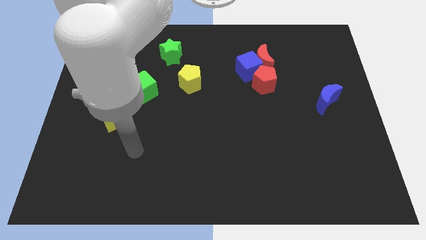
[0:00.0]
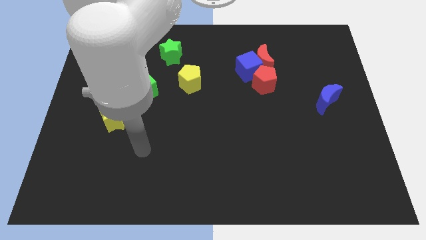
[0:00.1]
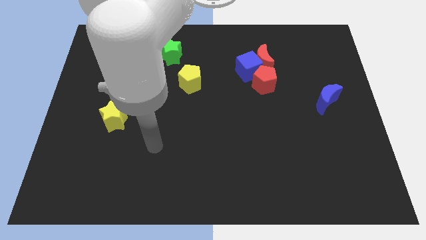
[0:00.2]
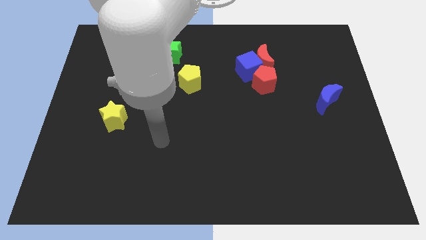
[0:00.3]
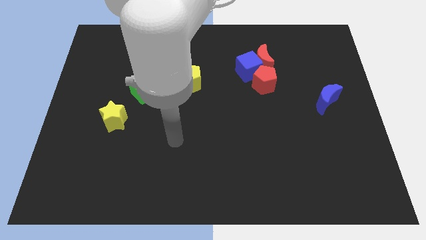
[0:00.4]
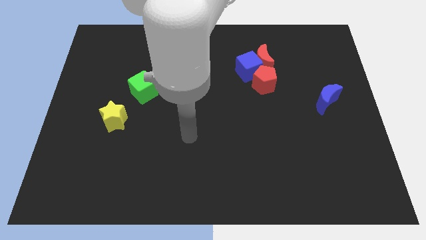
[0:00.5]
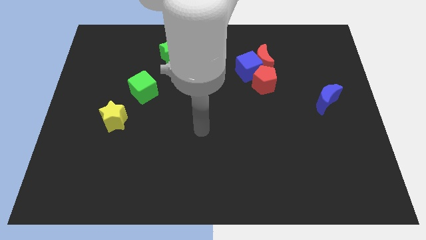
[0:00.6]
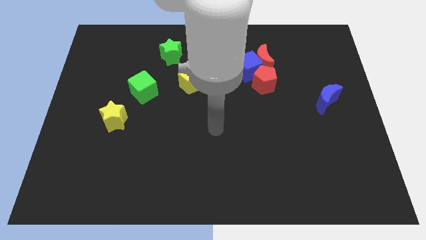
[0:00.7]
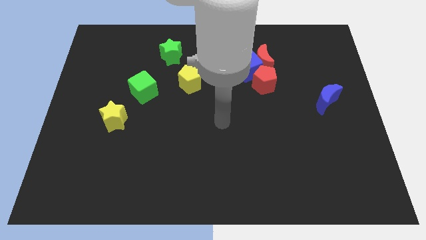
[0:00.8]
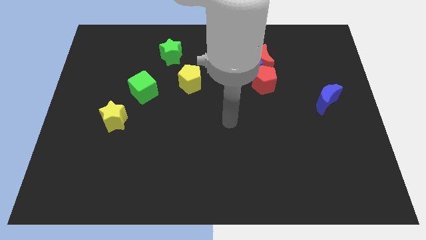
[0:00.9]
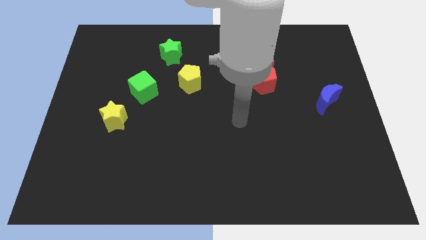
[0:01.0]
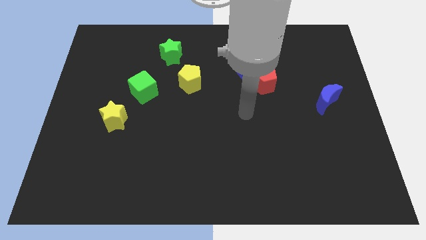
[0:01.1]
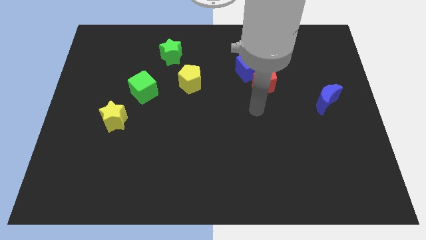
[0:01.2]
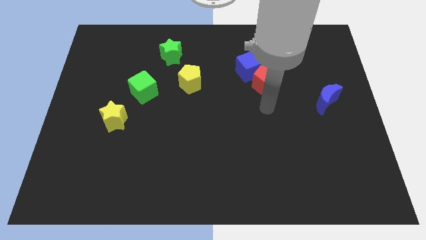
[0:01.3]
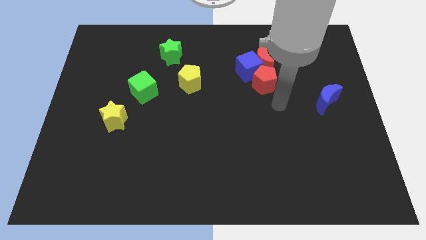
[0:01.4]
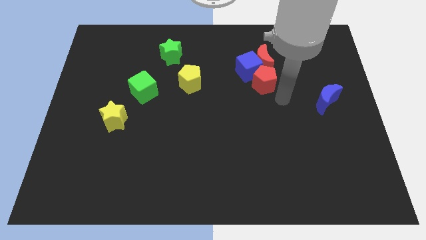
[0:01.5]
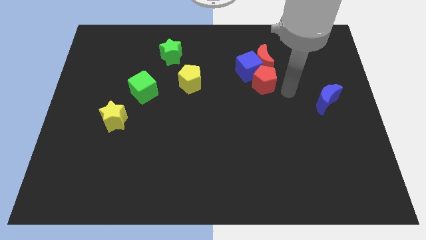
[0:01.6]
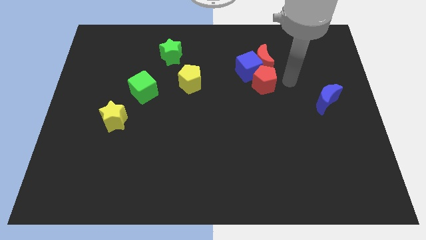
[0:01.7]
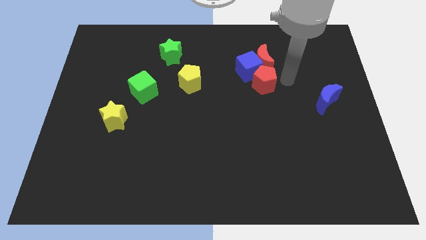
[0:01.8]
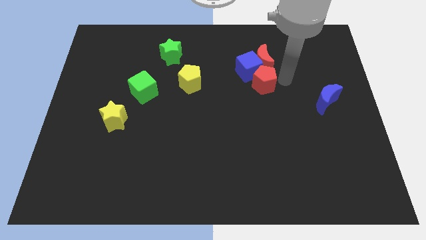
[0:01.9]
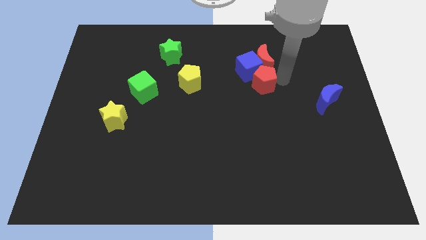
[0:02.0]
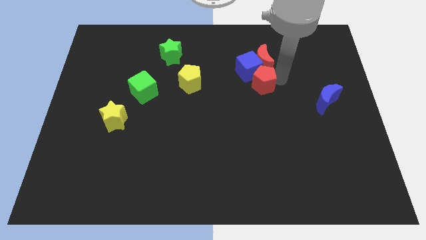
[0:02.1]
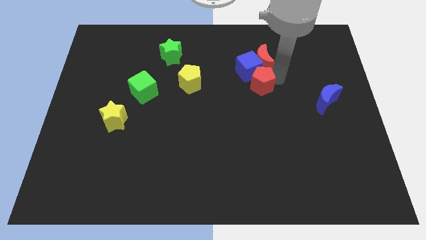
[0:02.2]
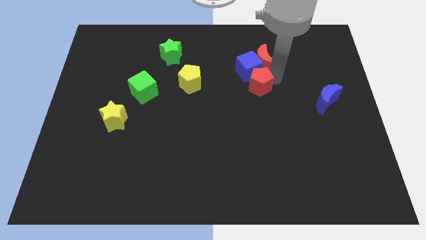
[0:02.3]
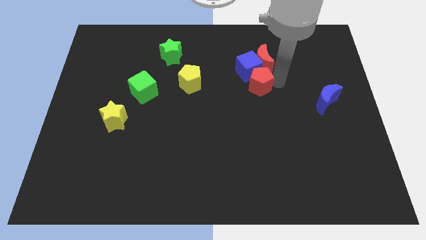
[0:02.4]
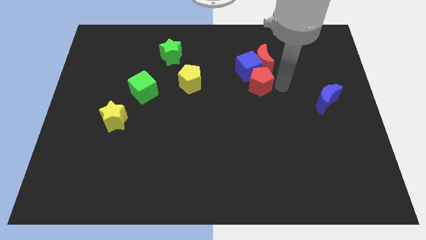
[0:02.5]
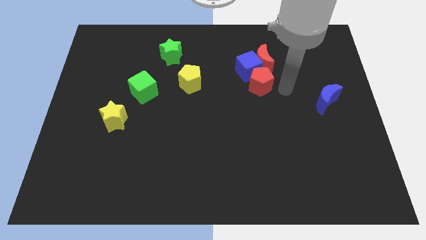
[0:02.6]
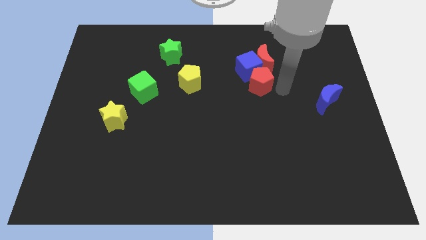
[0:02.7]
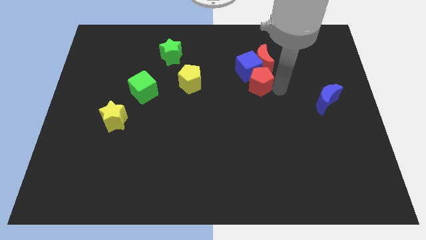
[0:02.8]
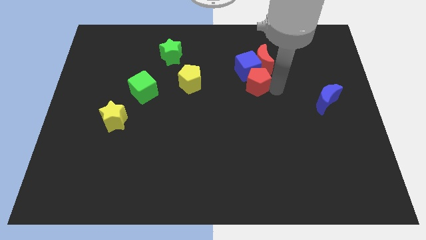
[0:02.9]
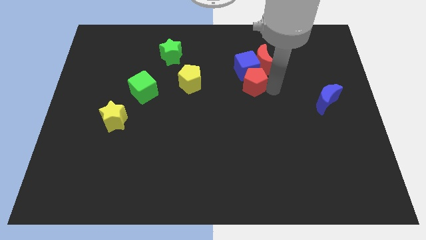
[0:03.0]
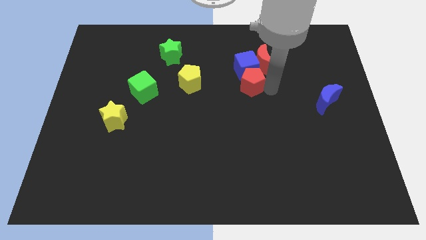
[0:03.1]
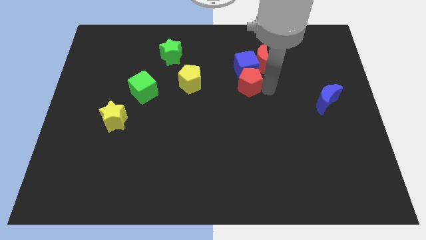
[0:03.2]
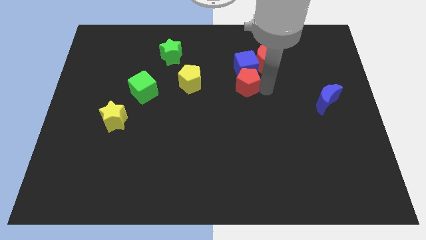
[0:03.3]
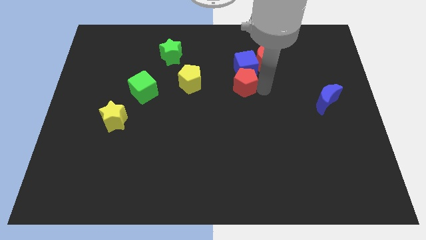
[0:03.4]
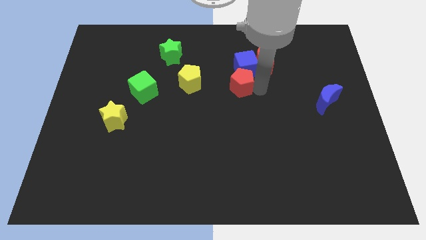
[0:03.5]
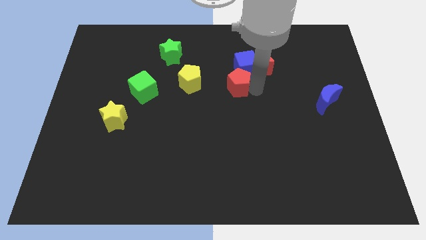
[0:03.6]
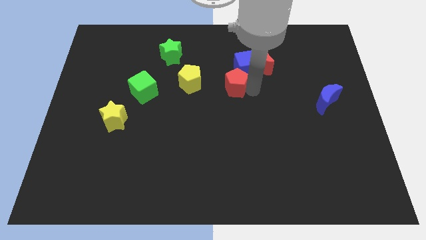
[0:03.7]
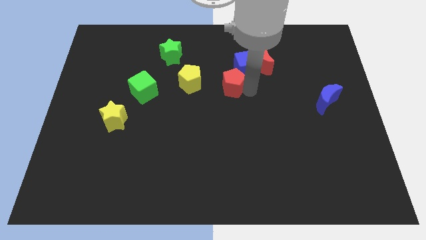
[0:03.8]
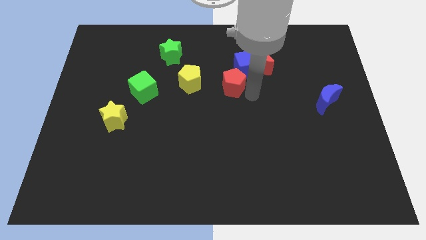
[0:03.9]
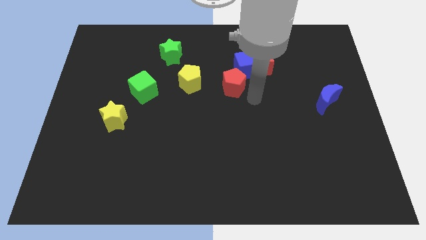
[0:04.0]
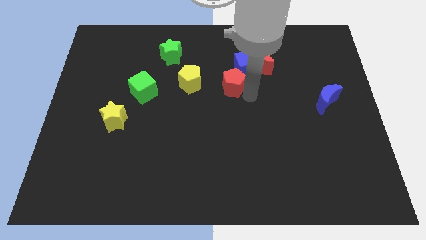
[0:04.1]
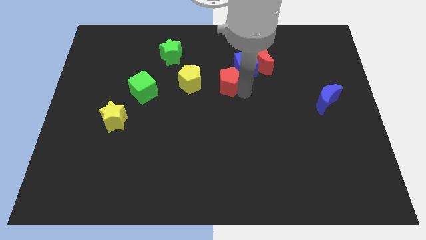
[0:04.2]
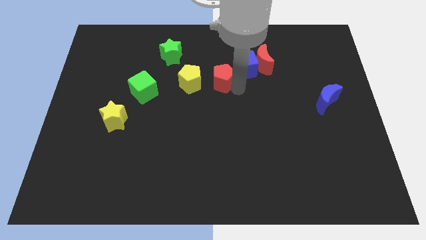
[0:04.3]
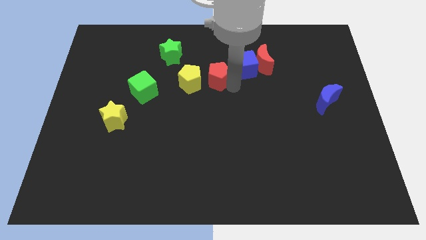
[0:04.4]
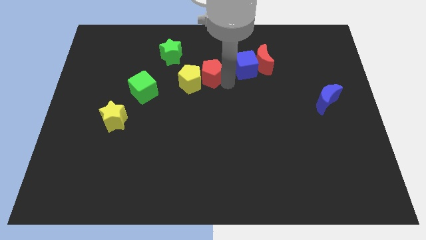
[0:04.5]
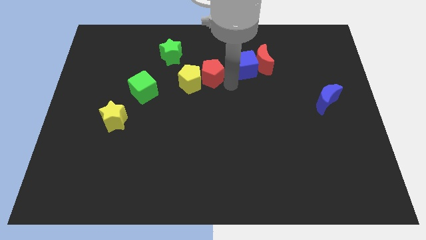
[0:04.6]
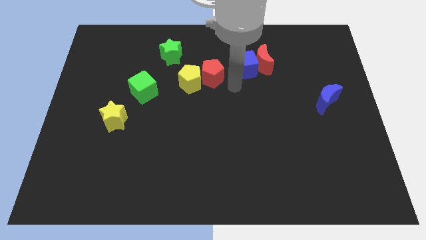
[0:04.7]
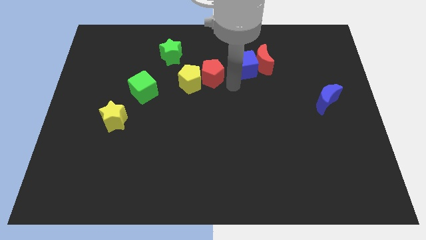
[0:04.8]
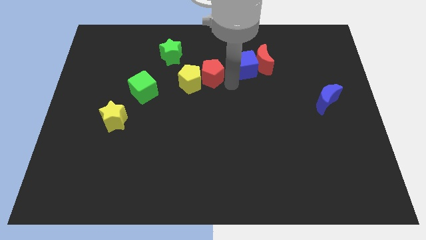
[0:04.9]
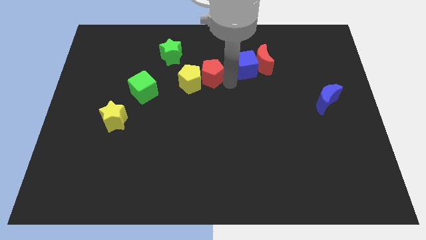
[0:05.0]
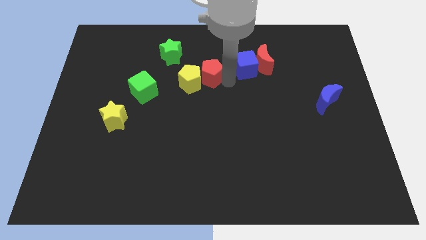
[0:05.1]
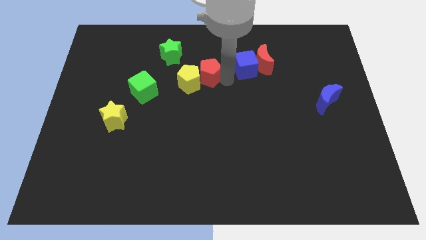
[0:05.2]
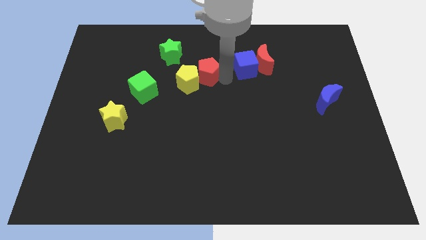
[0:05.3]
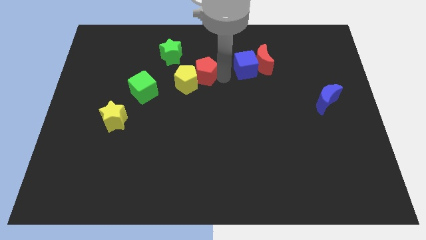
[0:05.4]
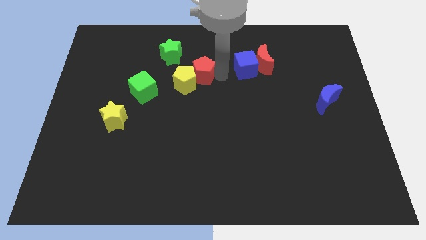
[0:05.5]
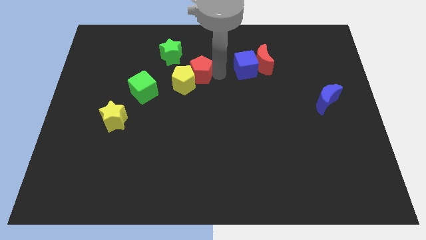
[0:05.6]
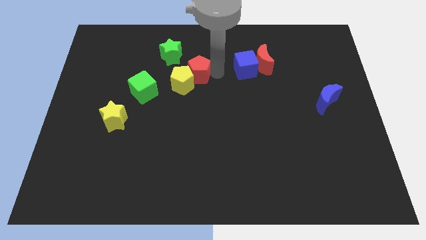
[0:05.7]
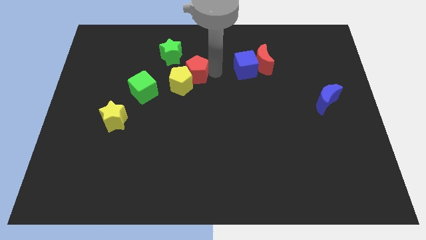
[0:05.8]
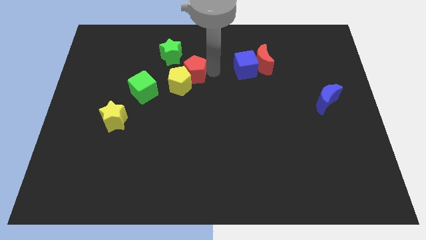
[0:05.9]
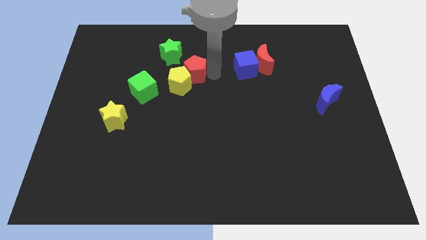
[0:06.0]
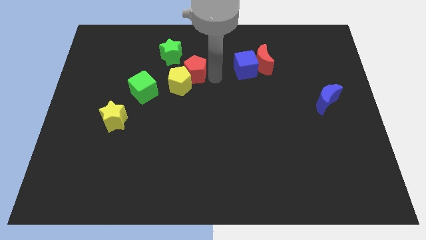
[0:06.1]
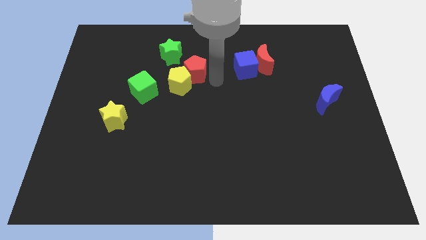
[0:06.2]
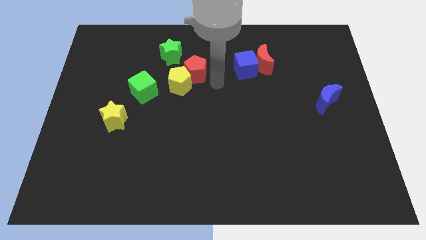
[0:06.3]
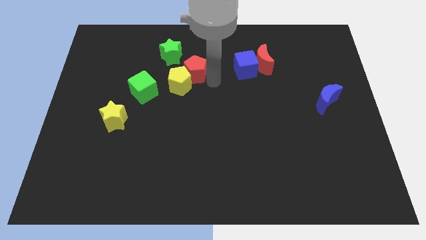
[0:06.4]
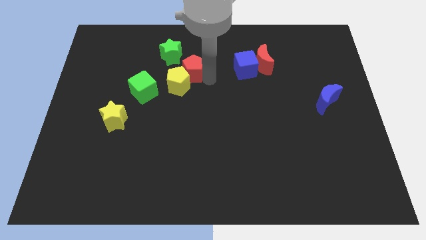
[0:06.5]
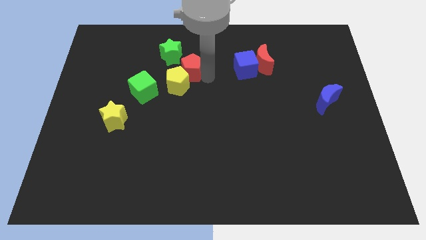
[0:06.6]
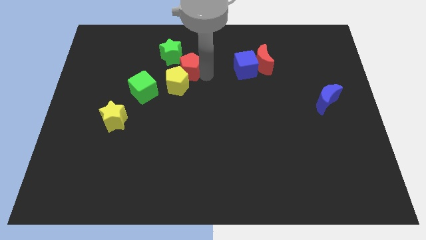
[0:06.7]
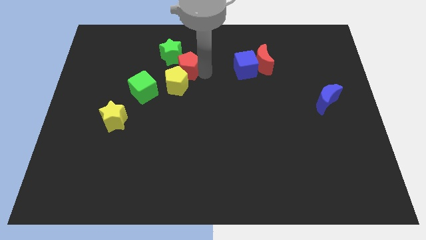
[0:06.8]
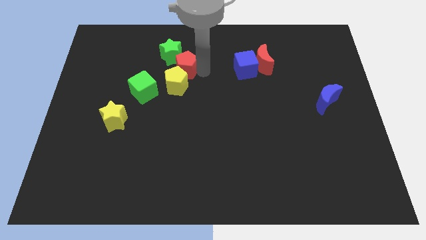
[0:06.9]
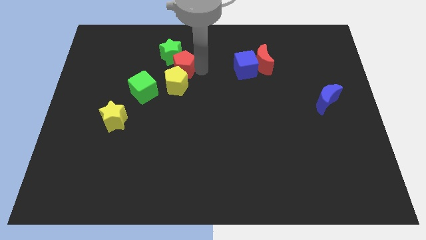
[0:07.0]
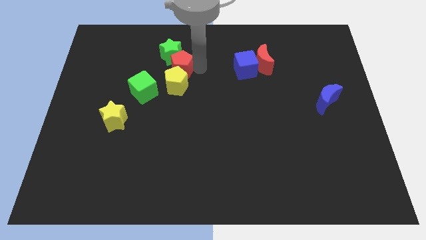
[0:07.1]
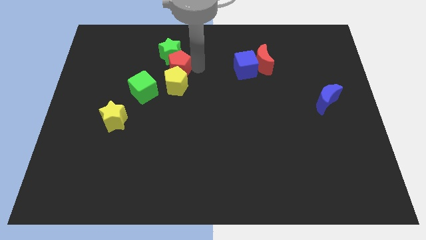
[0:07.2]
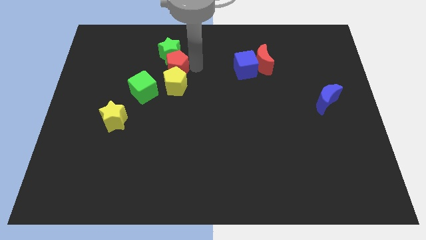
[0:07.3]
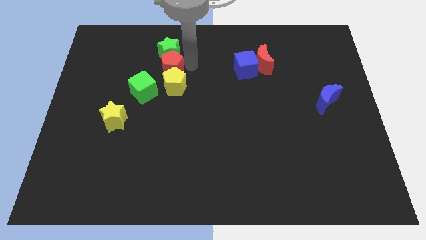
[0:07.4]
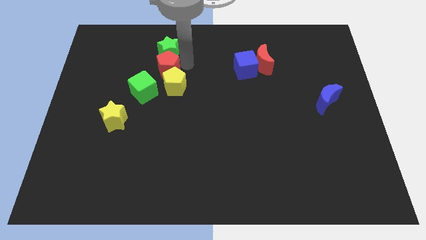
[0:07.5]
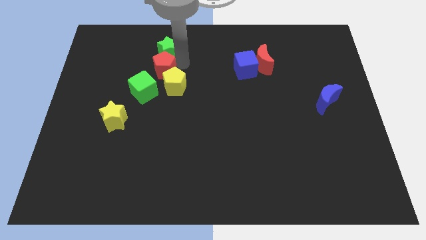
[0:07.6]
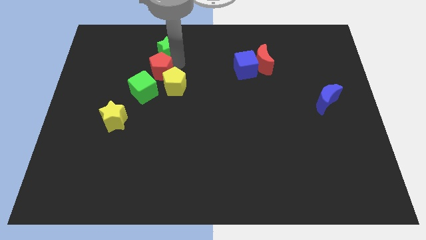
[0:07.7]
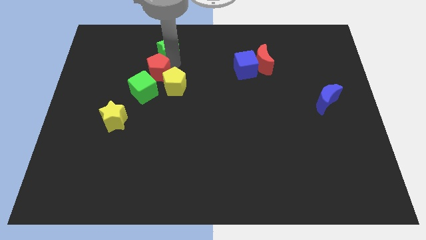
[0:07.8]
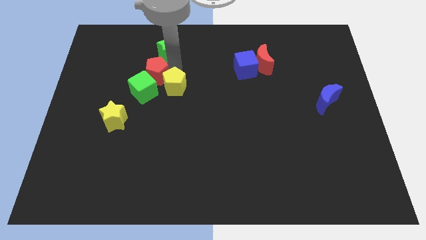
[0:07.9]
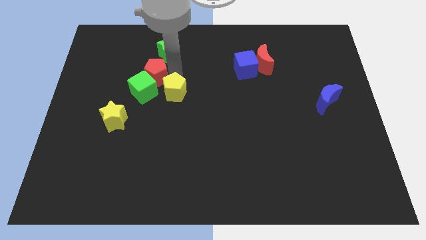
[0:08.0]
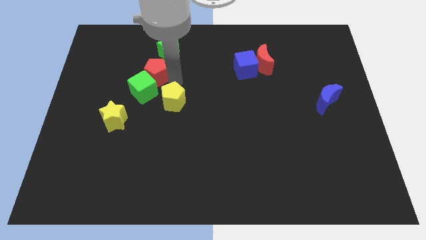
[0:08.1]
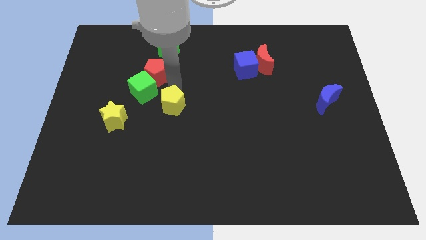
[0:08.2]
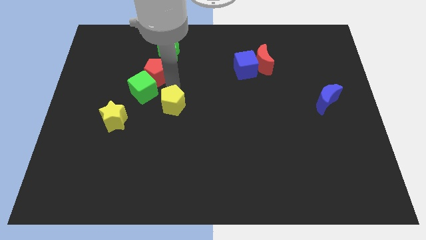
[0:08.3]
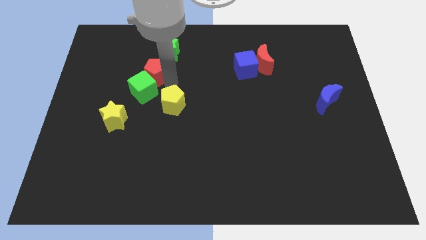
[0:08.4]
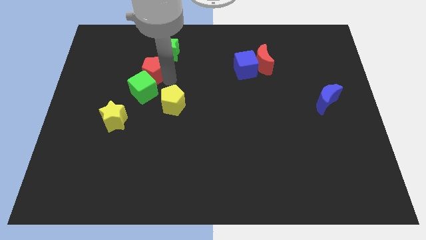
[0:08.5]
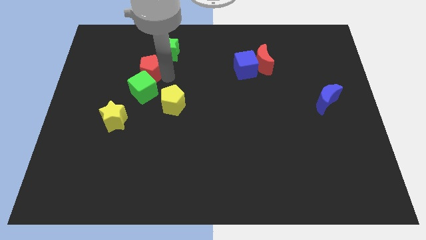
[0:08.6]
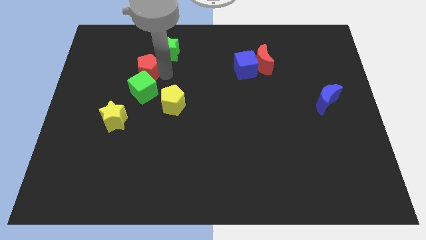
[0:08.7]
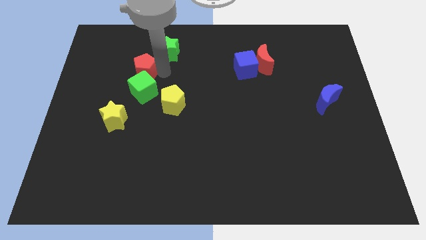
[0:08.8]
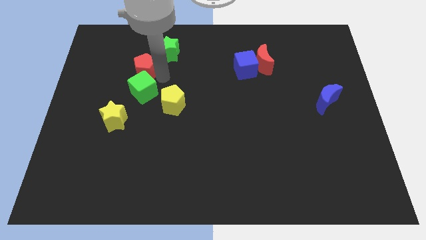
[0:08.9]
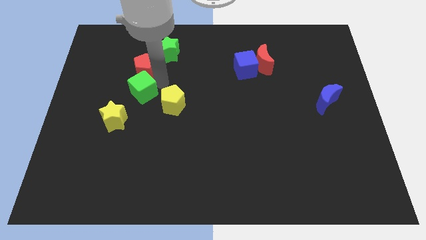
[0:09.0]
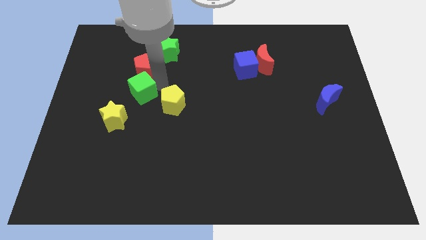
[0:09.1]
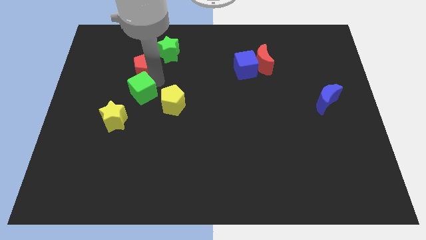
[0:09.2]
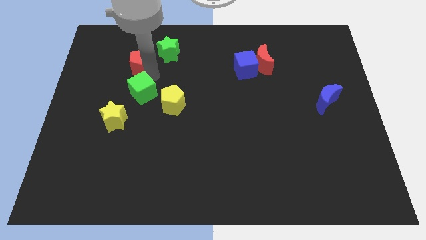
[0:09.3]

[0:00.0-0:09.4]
slide the red pentagon to the left side of the green star
